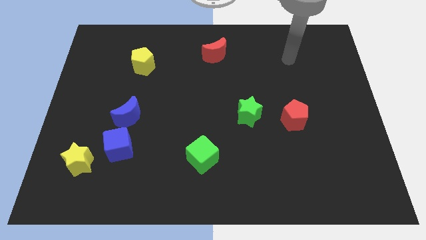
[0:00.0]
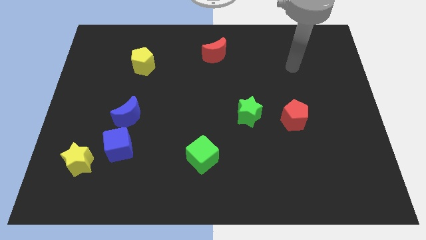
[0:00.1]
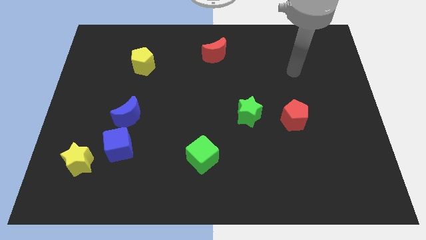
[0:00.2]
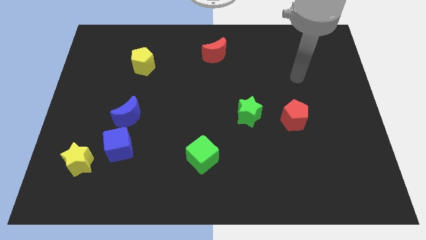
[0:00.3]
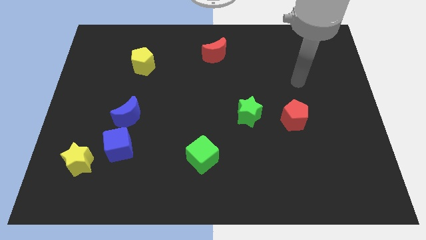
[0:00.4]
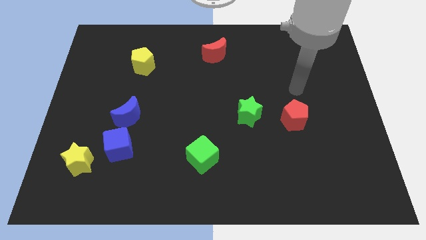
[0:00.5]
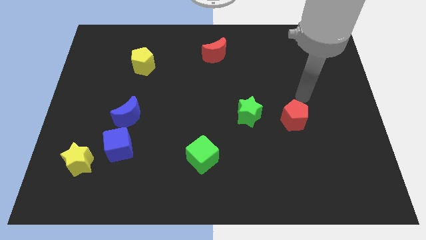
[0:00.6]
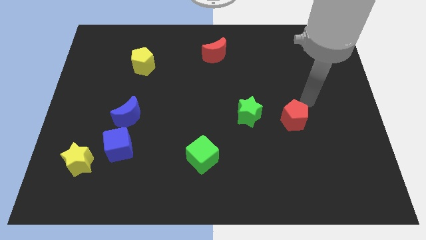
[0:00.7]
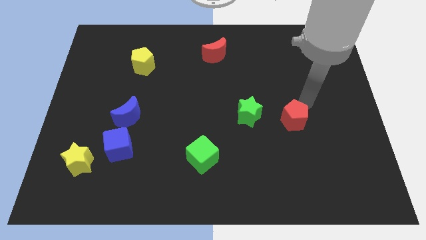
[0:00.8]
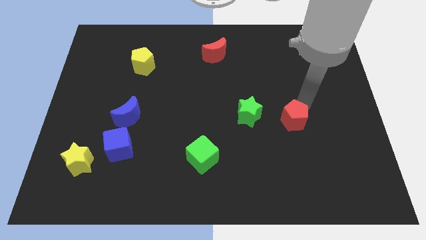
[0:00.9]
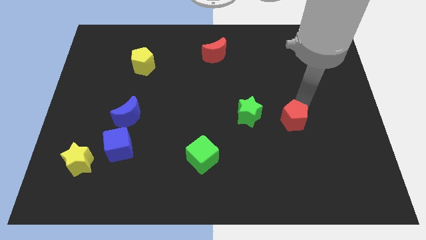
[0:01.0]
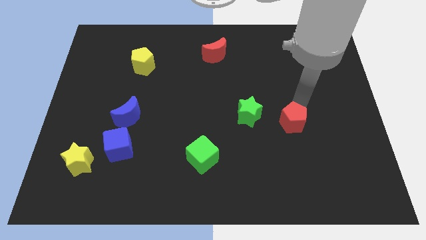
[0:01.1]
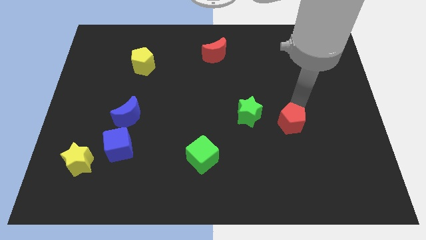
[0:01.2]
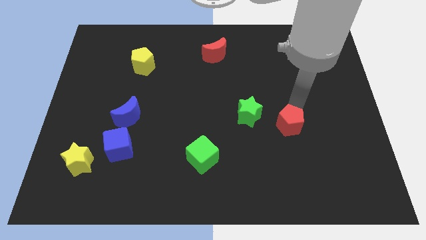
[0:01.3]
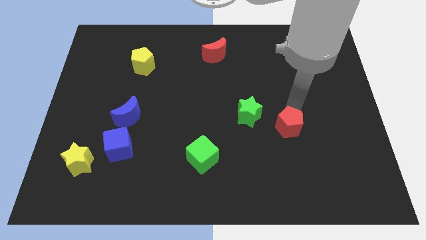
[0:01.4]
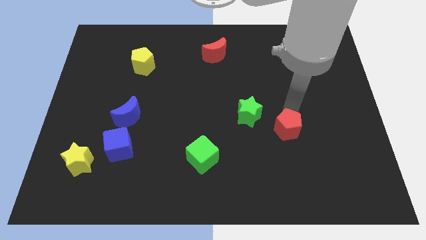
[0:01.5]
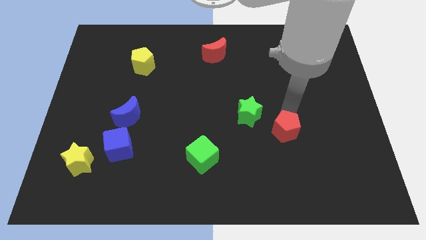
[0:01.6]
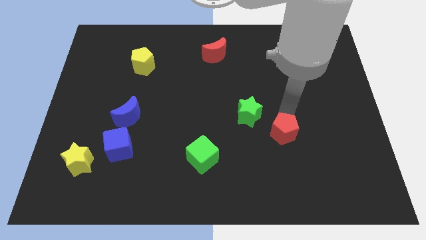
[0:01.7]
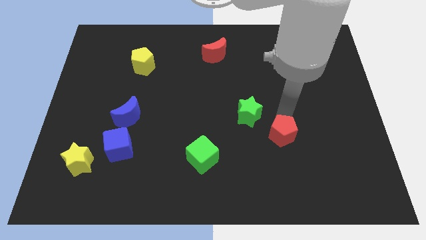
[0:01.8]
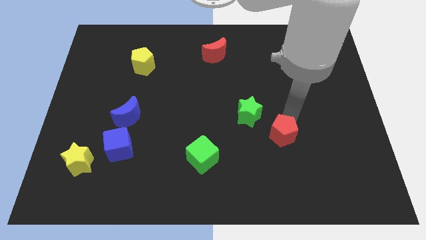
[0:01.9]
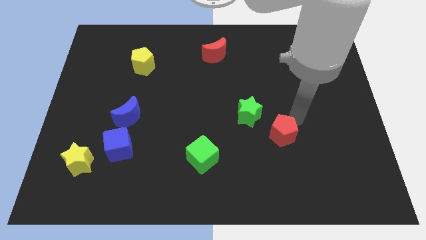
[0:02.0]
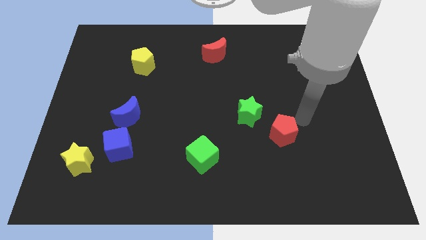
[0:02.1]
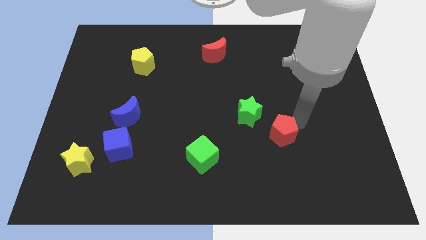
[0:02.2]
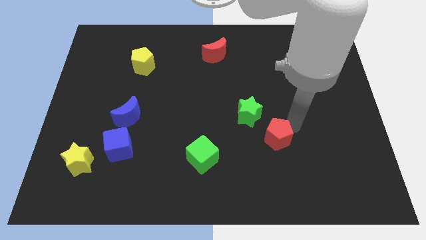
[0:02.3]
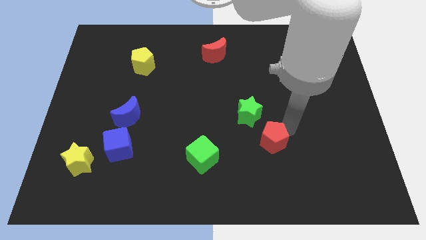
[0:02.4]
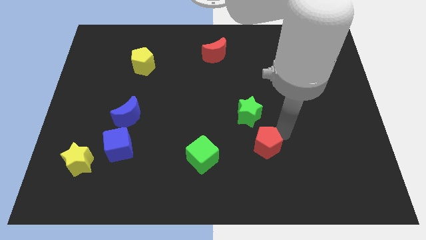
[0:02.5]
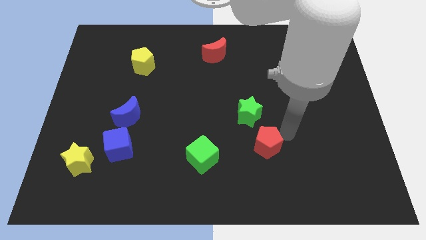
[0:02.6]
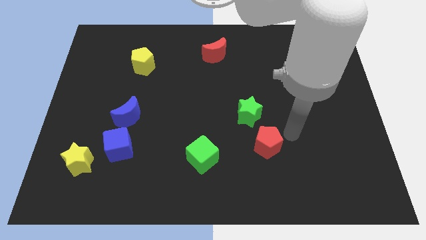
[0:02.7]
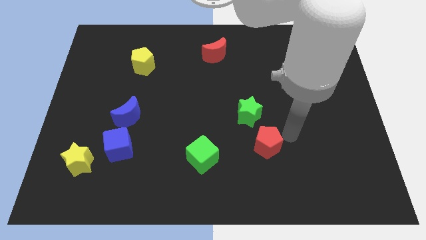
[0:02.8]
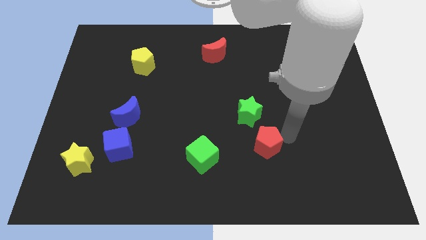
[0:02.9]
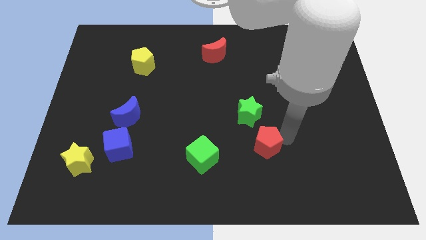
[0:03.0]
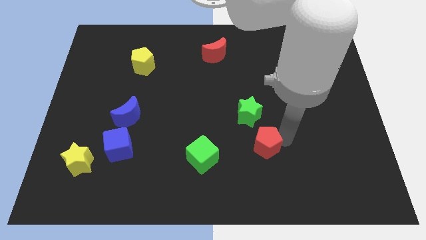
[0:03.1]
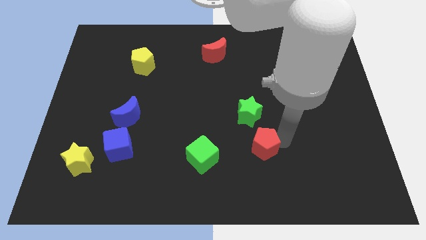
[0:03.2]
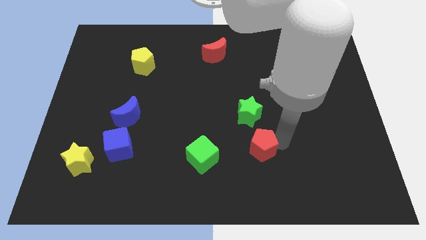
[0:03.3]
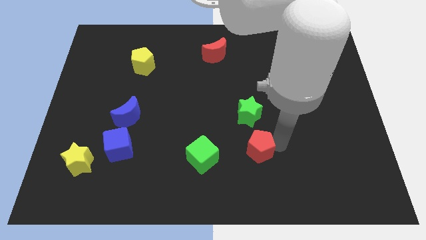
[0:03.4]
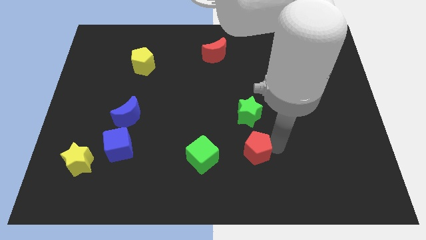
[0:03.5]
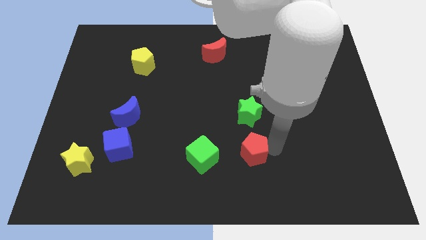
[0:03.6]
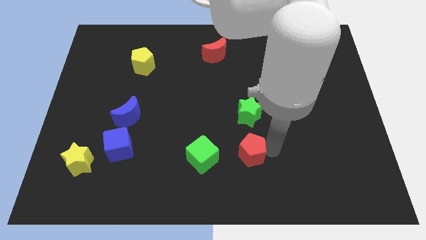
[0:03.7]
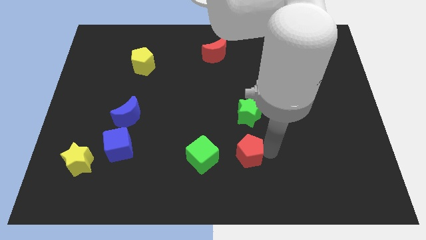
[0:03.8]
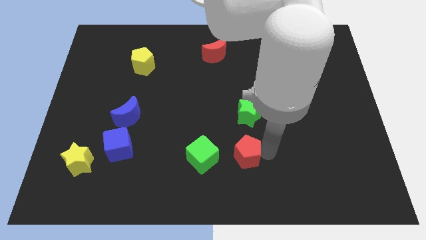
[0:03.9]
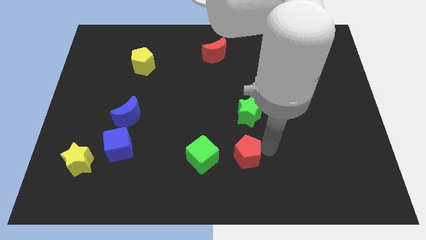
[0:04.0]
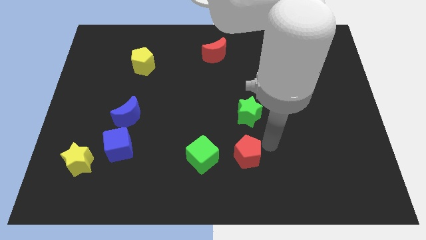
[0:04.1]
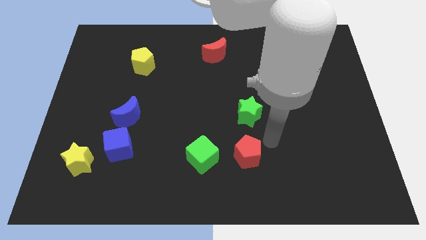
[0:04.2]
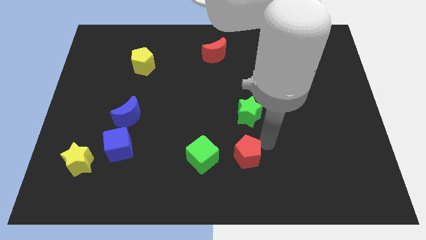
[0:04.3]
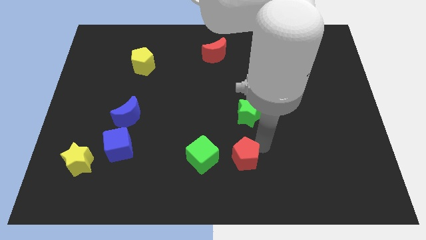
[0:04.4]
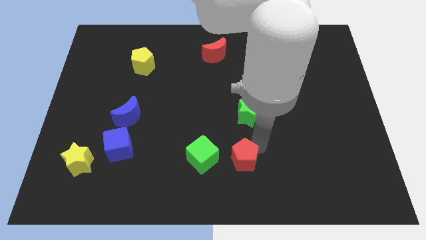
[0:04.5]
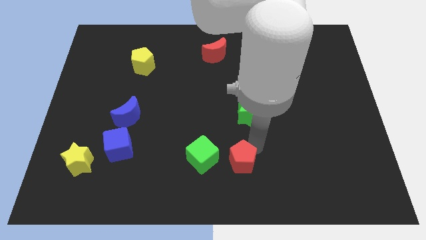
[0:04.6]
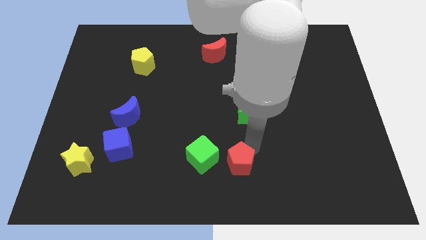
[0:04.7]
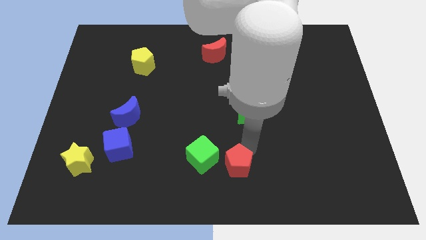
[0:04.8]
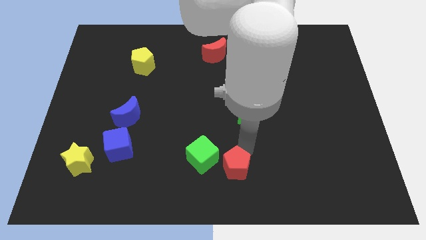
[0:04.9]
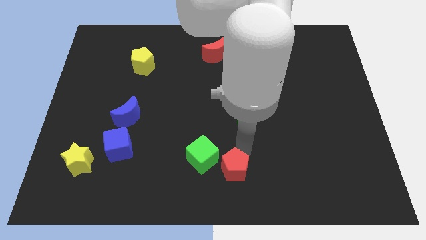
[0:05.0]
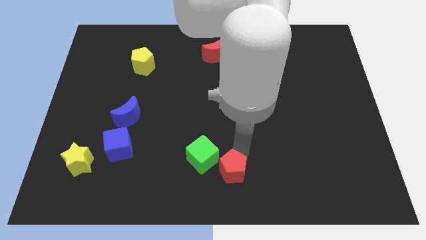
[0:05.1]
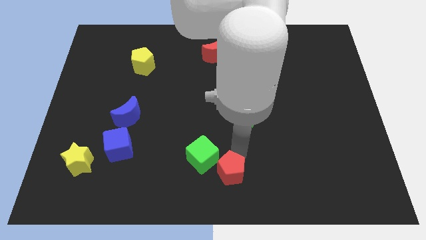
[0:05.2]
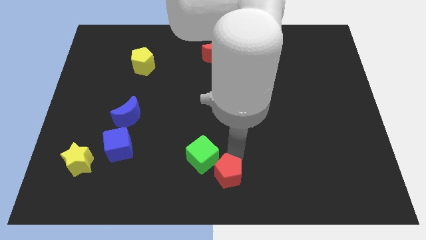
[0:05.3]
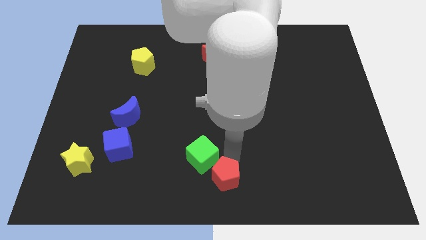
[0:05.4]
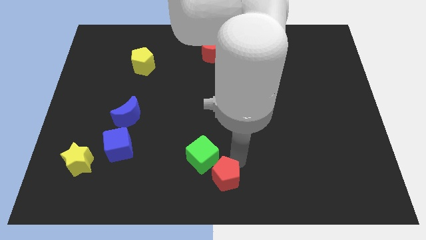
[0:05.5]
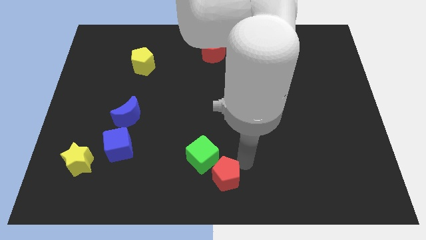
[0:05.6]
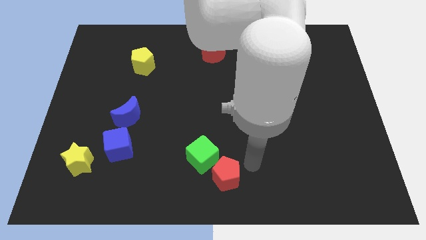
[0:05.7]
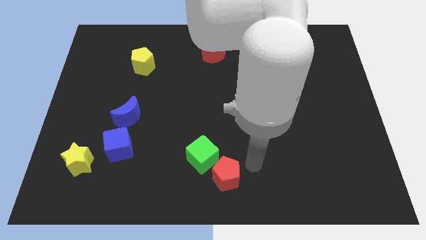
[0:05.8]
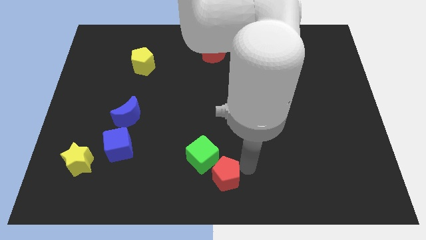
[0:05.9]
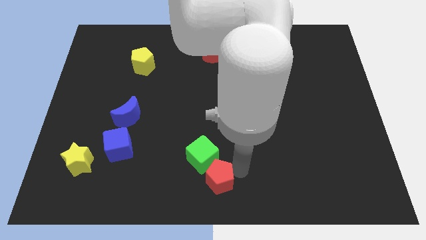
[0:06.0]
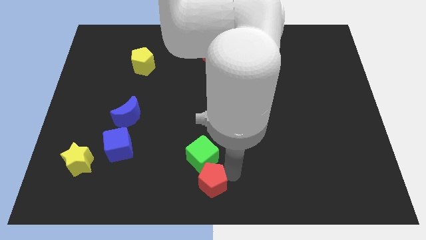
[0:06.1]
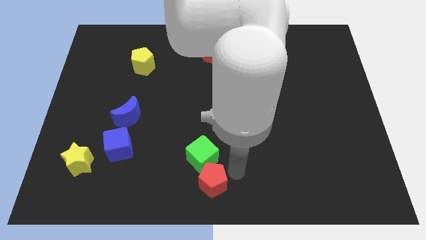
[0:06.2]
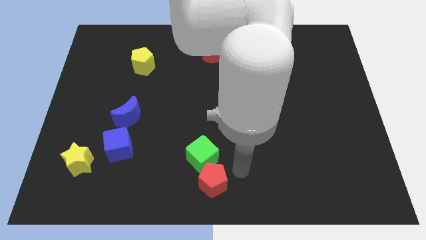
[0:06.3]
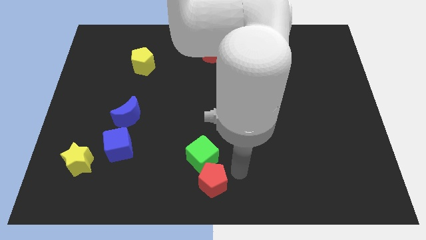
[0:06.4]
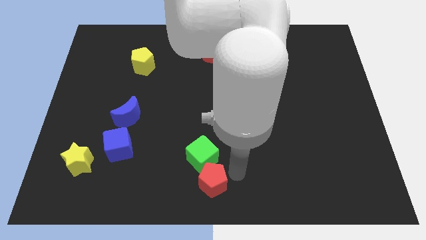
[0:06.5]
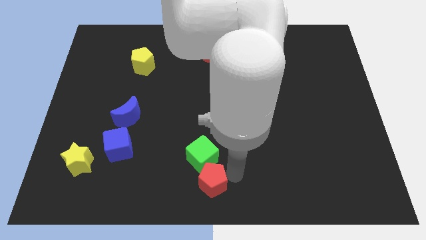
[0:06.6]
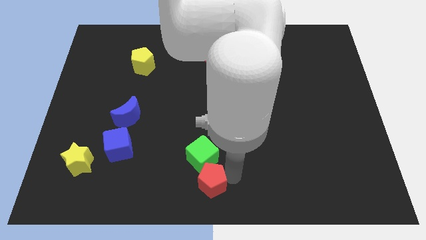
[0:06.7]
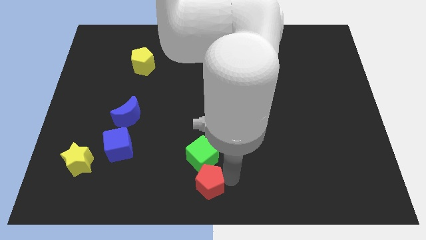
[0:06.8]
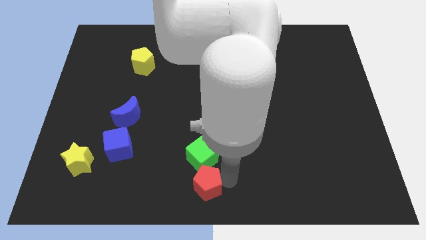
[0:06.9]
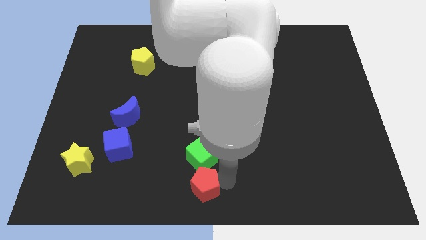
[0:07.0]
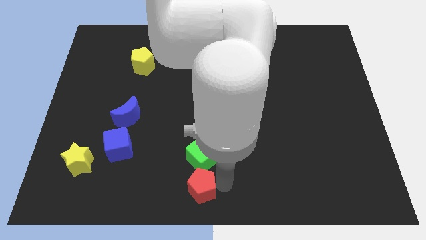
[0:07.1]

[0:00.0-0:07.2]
put the red pentagon to the bottom left side of the green cube

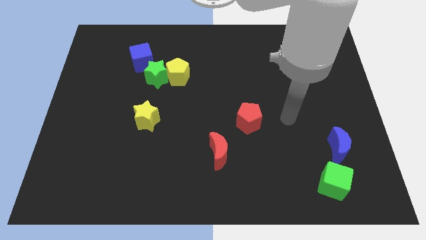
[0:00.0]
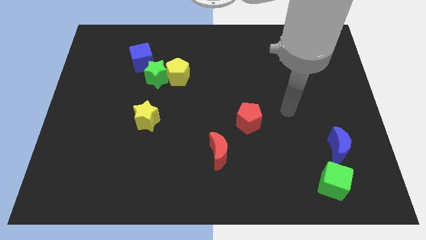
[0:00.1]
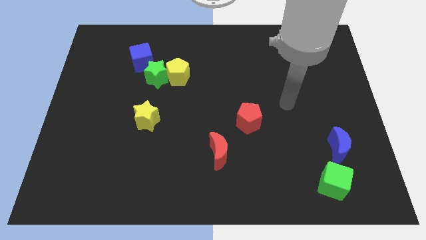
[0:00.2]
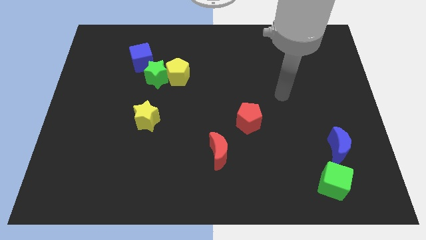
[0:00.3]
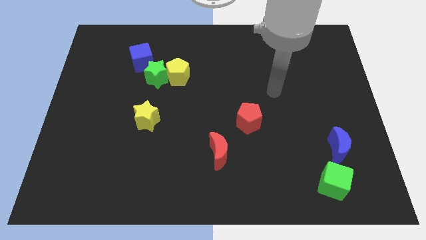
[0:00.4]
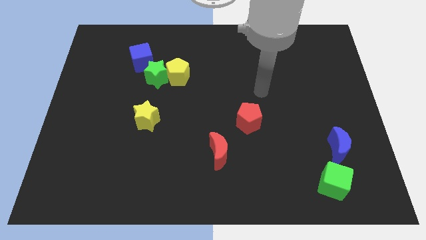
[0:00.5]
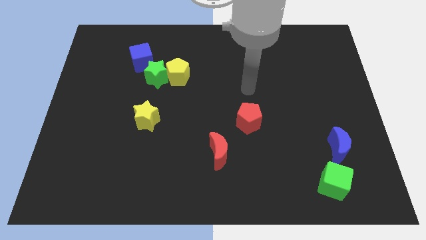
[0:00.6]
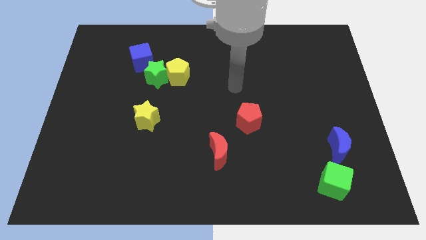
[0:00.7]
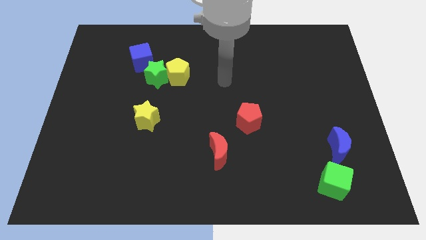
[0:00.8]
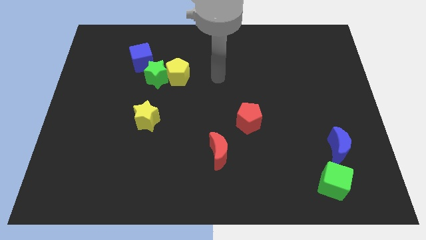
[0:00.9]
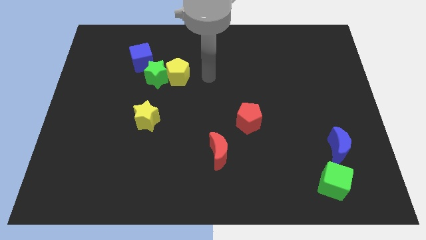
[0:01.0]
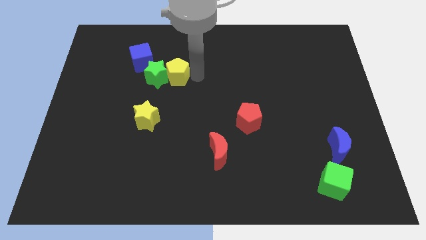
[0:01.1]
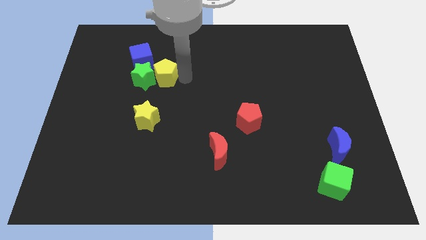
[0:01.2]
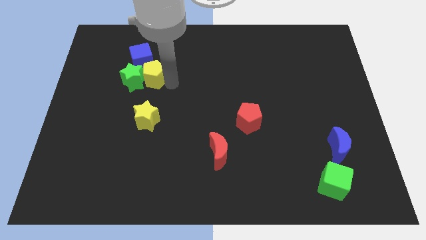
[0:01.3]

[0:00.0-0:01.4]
move the green star to the bottom left side of the blue cube
